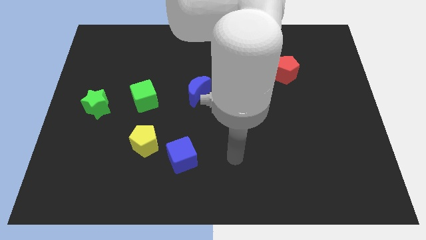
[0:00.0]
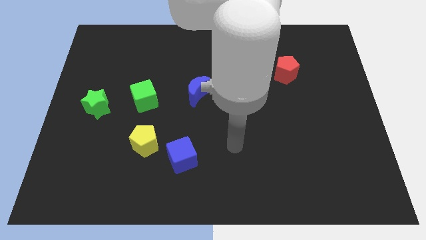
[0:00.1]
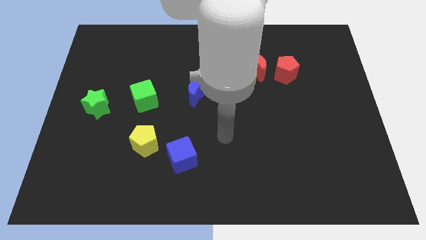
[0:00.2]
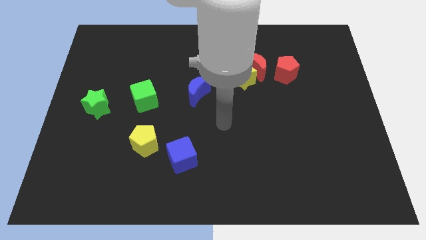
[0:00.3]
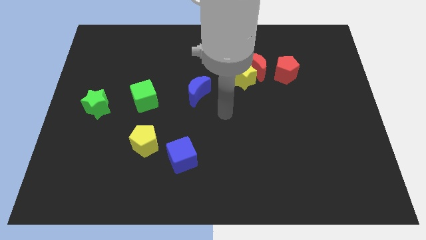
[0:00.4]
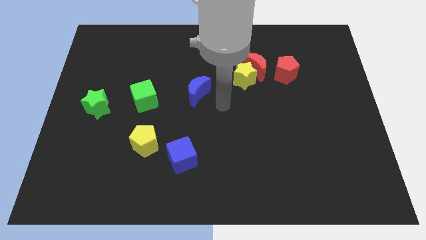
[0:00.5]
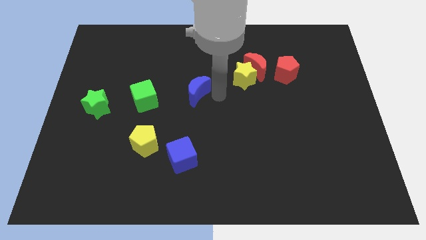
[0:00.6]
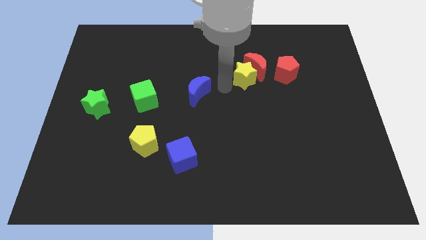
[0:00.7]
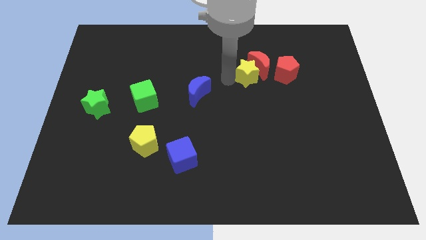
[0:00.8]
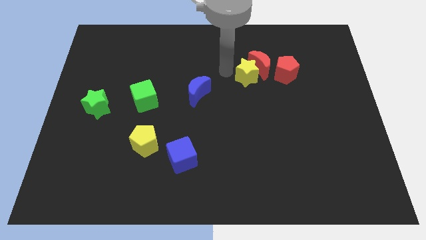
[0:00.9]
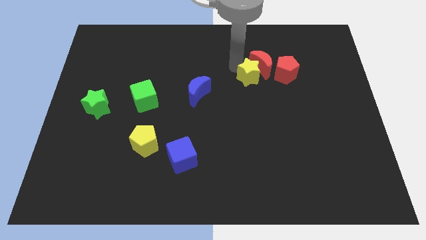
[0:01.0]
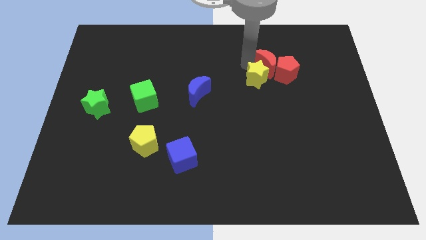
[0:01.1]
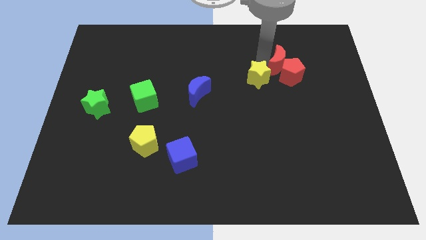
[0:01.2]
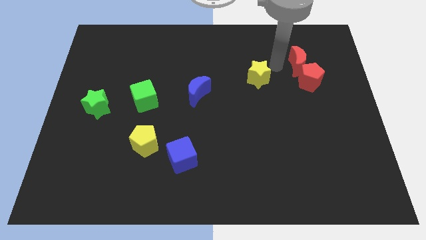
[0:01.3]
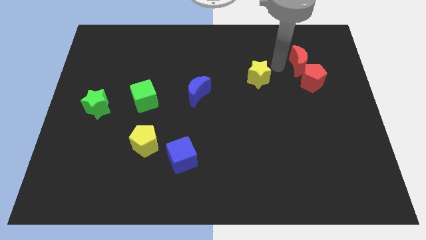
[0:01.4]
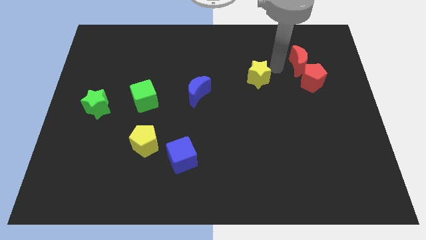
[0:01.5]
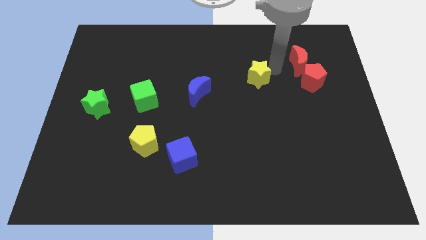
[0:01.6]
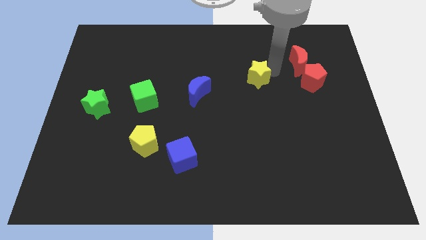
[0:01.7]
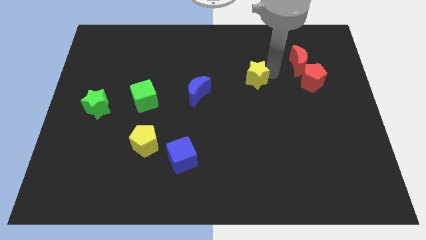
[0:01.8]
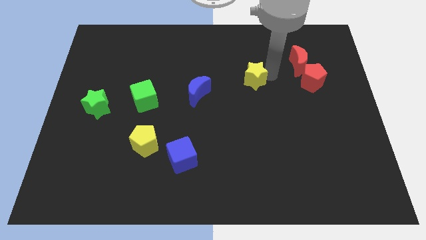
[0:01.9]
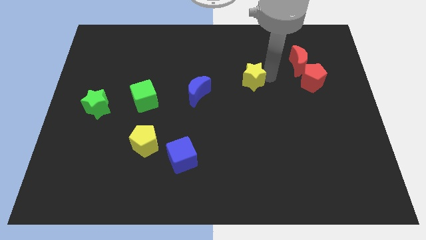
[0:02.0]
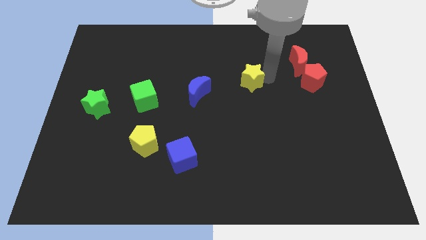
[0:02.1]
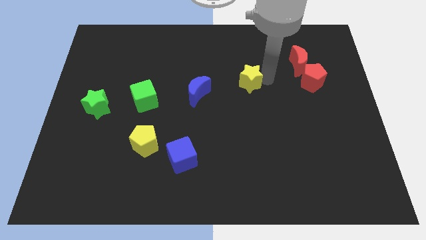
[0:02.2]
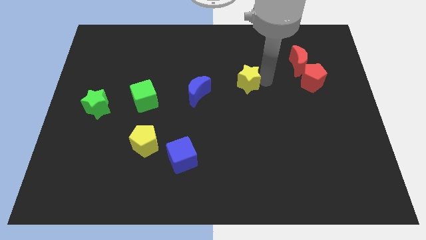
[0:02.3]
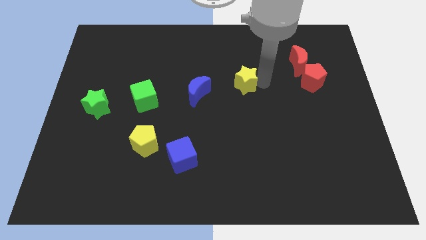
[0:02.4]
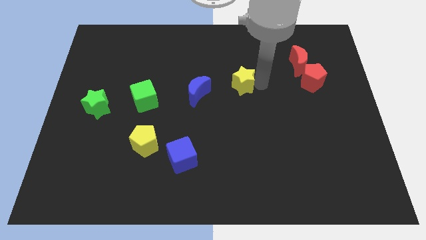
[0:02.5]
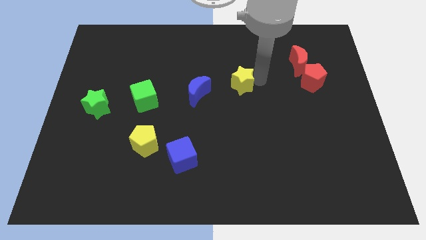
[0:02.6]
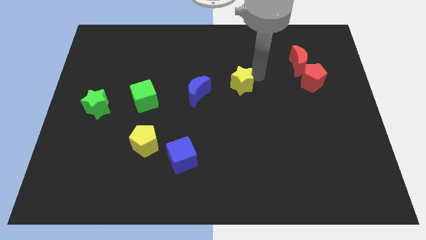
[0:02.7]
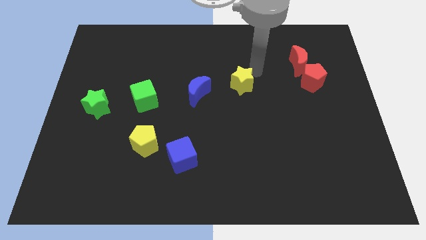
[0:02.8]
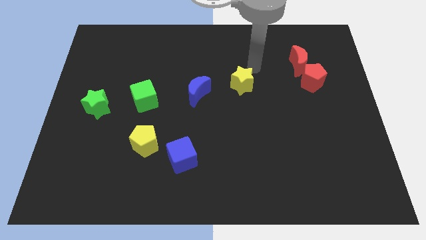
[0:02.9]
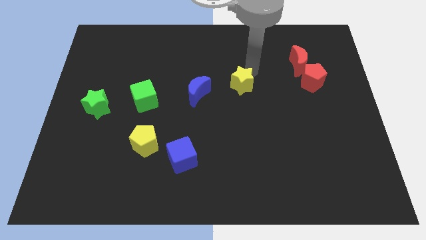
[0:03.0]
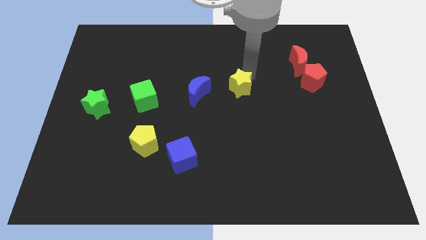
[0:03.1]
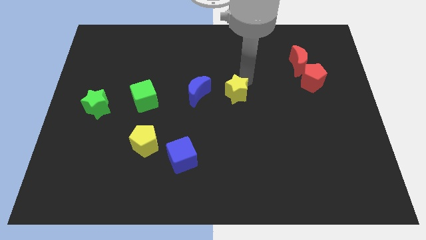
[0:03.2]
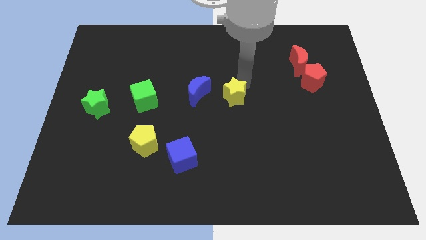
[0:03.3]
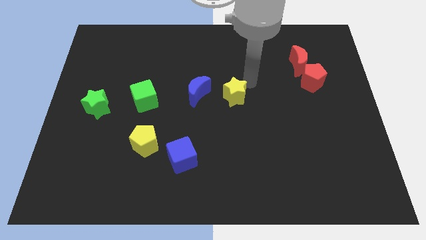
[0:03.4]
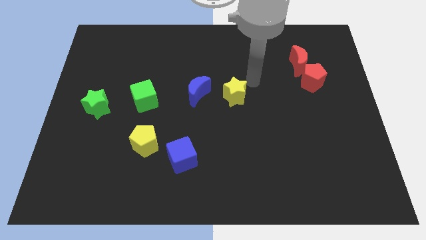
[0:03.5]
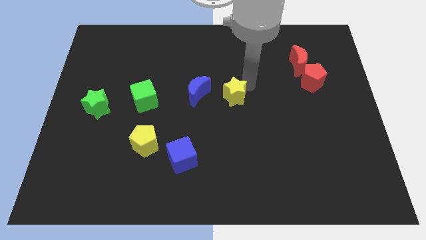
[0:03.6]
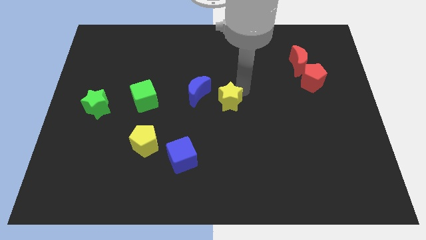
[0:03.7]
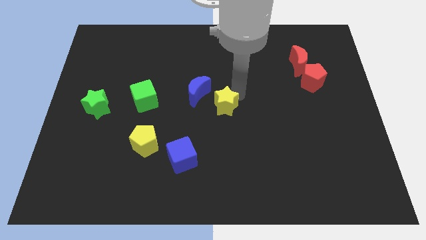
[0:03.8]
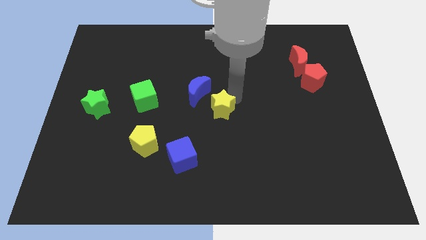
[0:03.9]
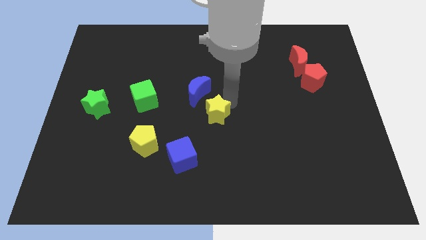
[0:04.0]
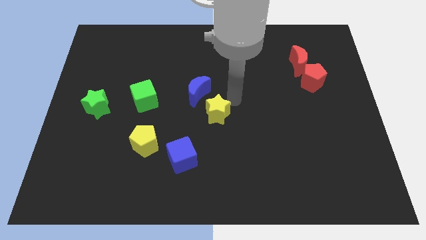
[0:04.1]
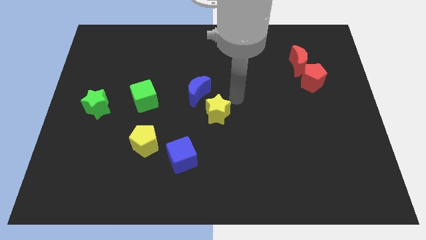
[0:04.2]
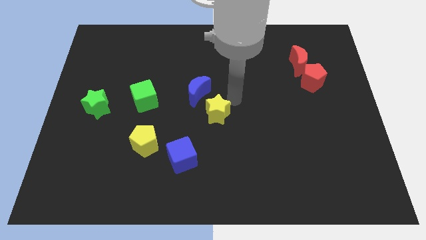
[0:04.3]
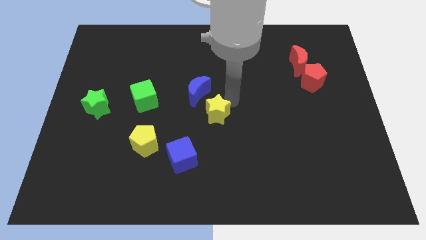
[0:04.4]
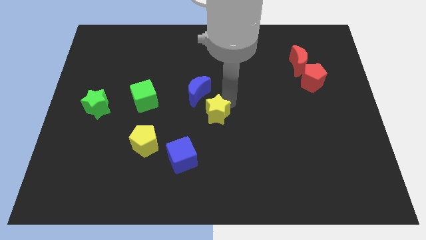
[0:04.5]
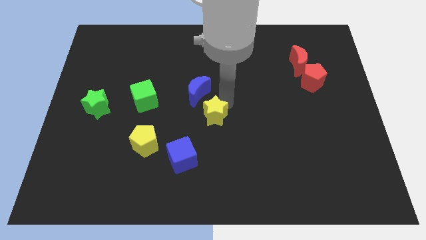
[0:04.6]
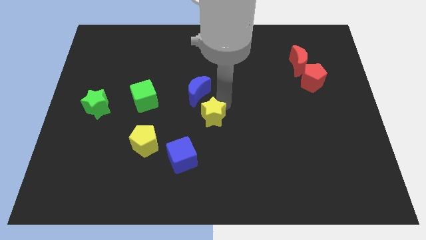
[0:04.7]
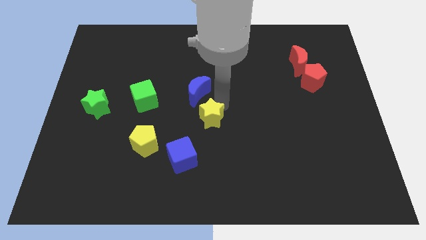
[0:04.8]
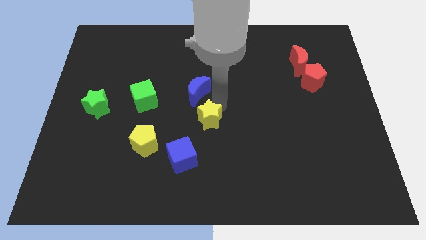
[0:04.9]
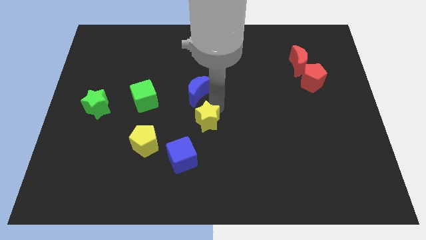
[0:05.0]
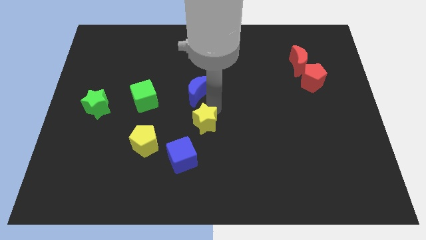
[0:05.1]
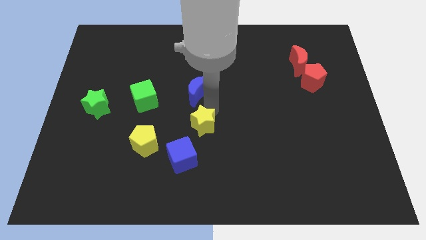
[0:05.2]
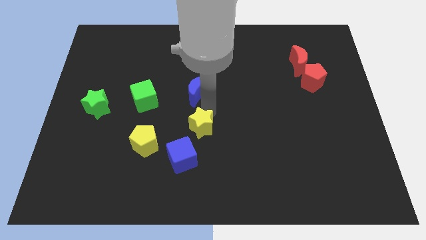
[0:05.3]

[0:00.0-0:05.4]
move the yellow star to the right side of the yellow pentagon

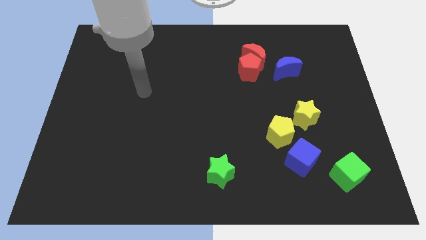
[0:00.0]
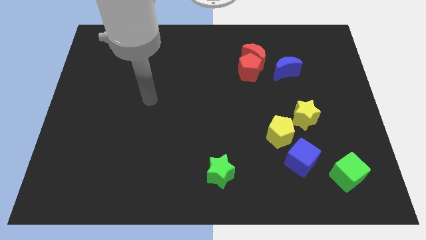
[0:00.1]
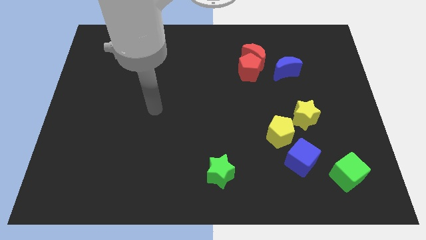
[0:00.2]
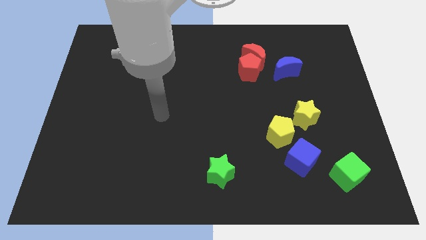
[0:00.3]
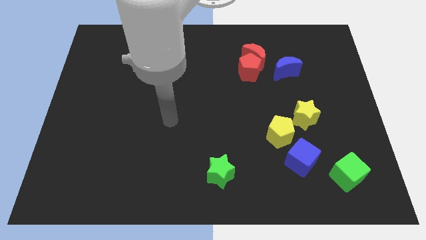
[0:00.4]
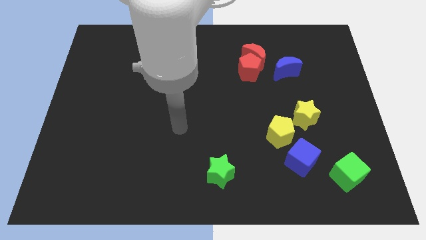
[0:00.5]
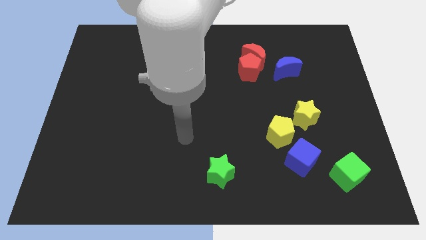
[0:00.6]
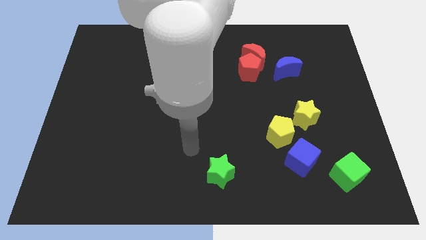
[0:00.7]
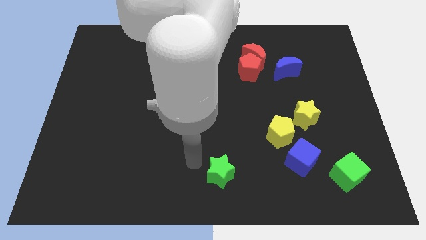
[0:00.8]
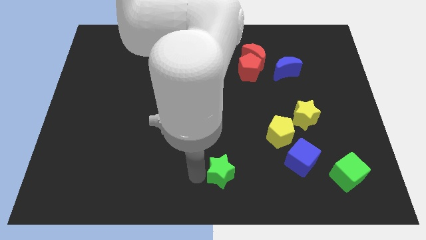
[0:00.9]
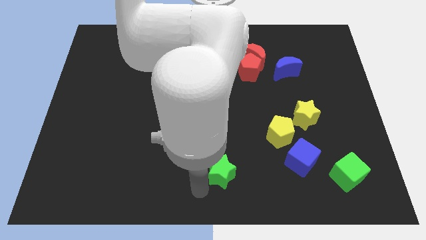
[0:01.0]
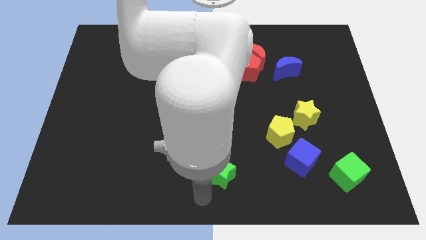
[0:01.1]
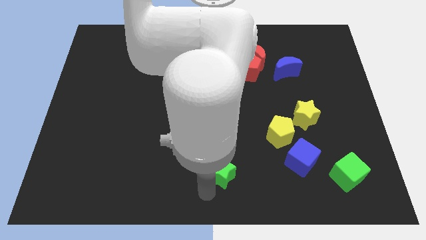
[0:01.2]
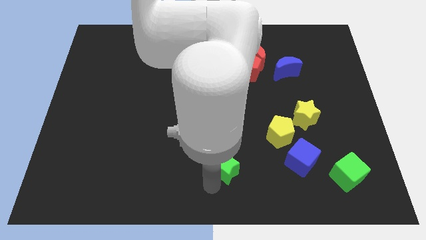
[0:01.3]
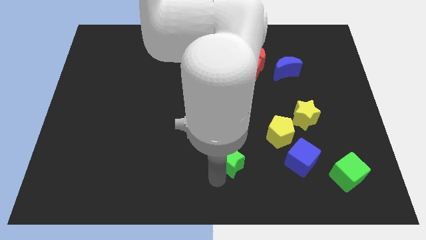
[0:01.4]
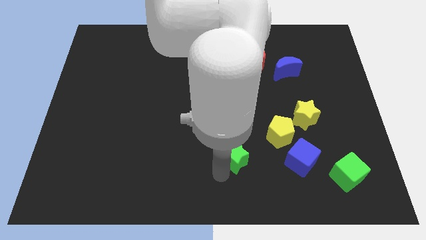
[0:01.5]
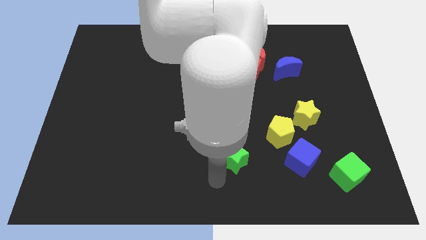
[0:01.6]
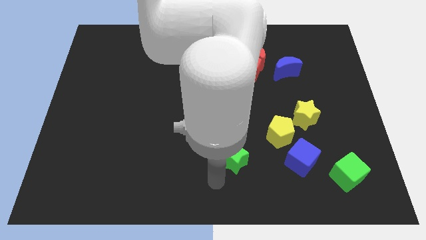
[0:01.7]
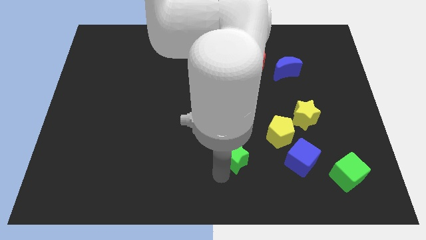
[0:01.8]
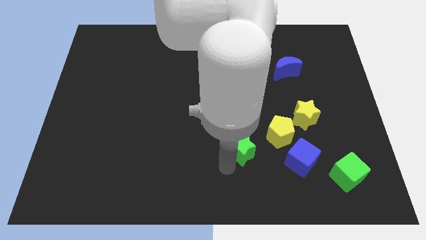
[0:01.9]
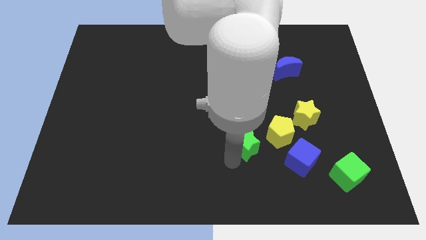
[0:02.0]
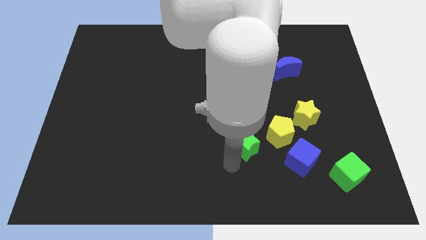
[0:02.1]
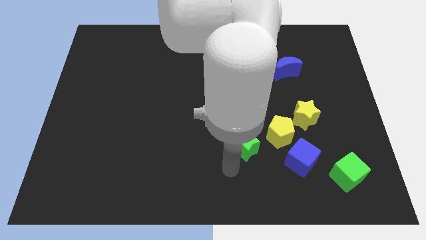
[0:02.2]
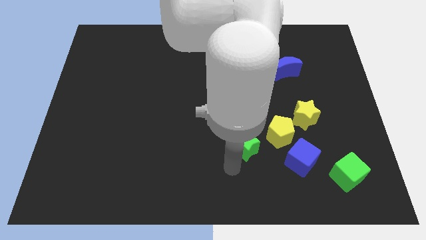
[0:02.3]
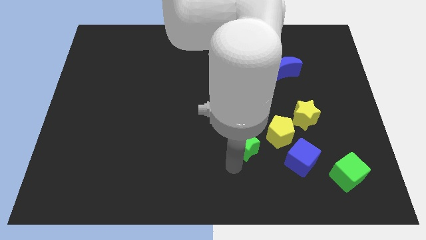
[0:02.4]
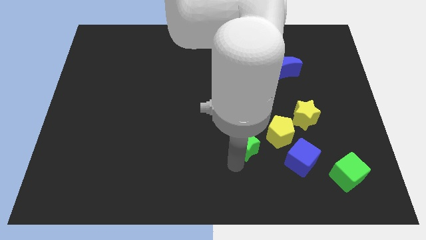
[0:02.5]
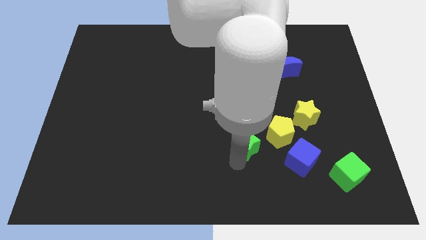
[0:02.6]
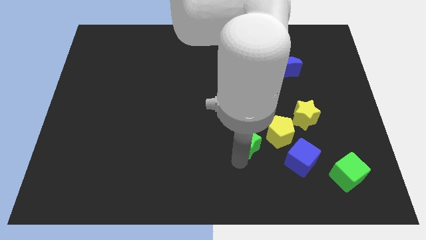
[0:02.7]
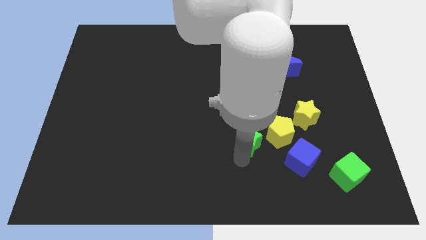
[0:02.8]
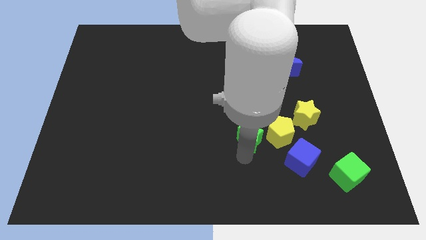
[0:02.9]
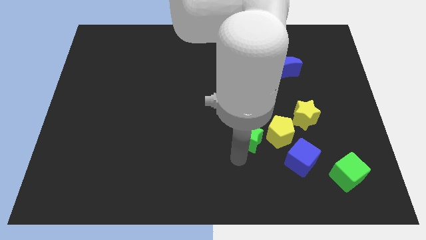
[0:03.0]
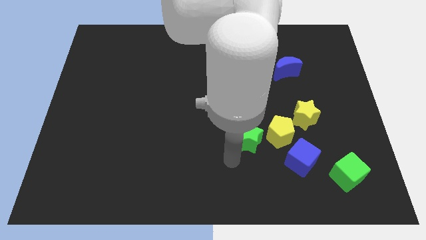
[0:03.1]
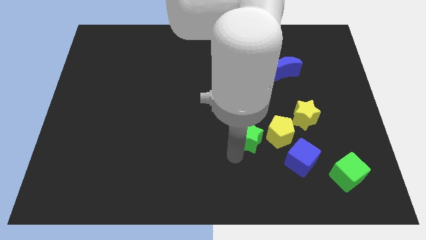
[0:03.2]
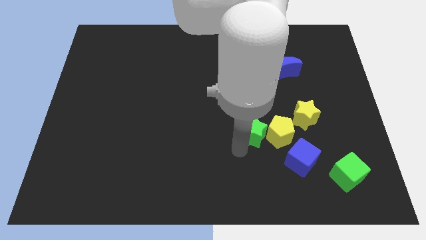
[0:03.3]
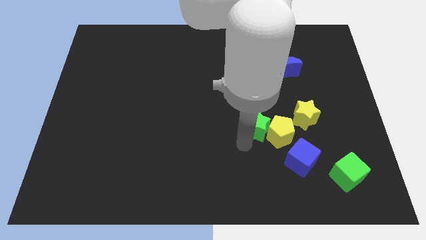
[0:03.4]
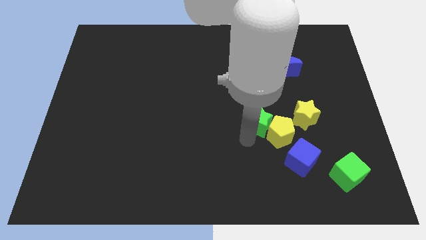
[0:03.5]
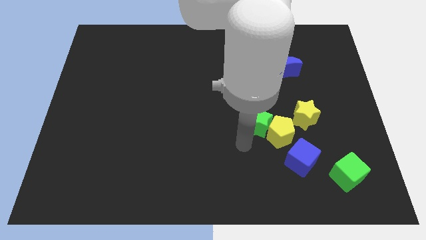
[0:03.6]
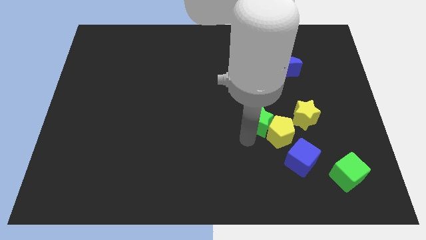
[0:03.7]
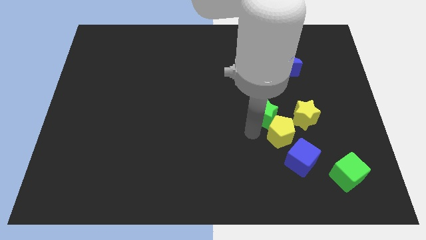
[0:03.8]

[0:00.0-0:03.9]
slide the green star to the top side of the yellow pentagon
